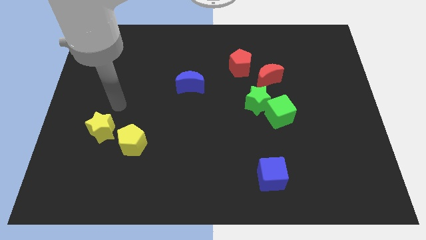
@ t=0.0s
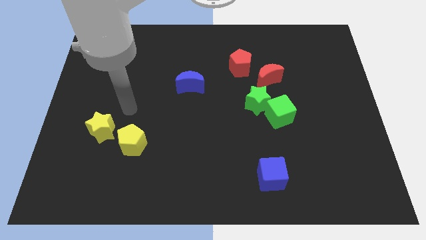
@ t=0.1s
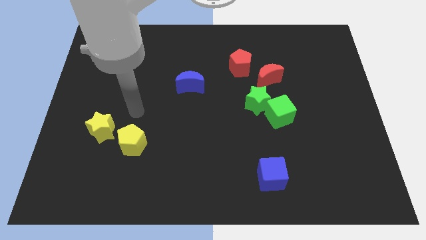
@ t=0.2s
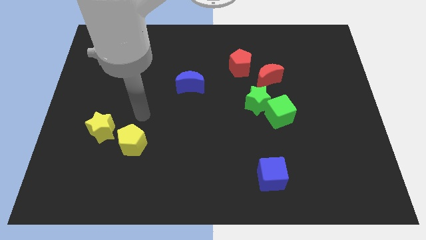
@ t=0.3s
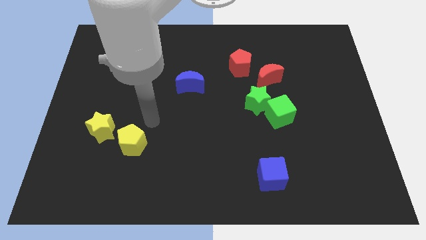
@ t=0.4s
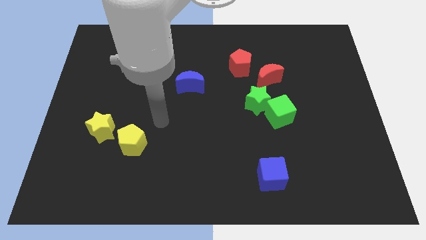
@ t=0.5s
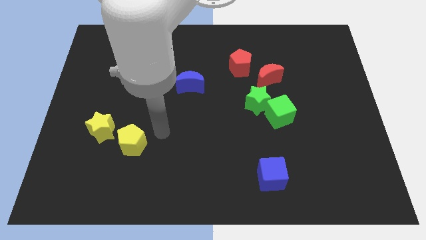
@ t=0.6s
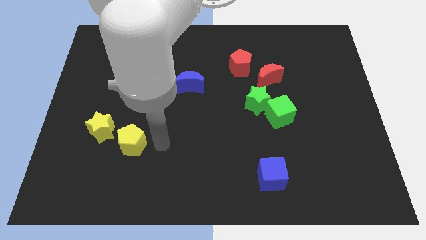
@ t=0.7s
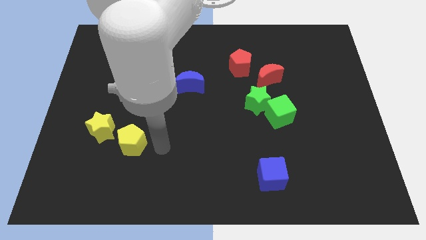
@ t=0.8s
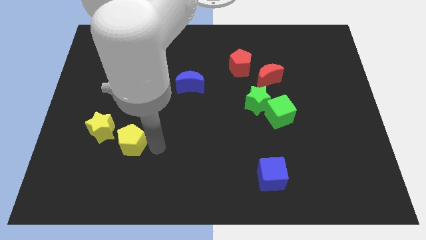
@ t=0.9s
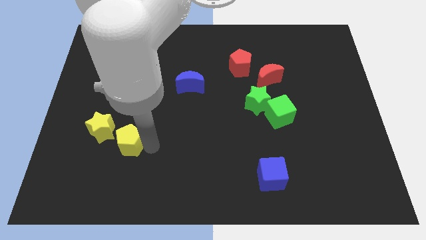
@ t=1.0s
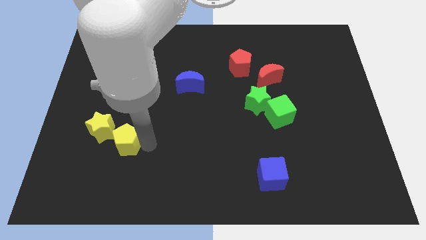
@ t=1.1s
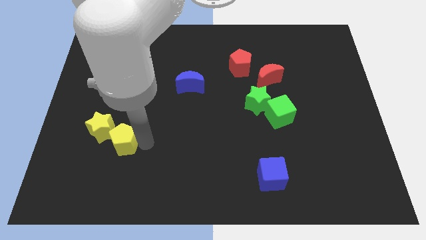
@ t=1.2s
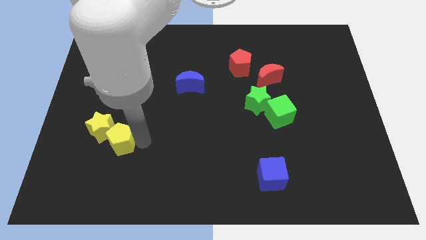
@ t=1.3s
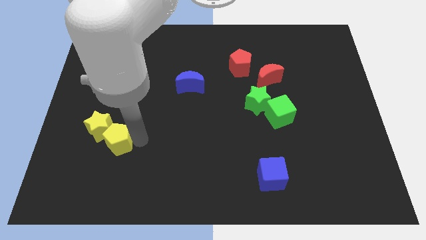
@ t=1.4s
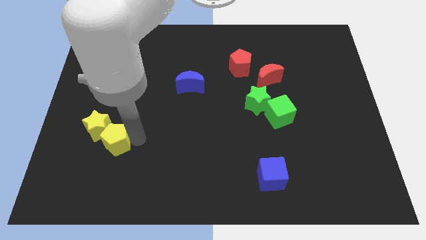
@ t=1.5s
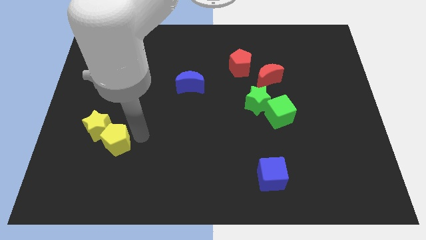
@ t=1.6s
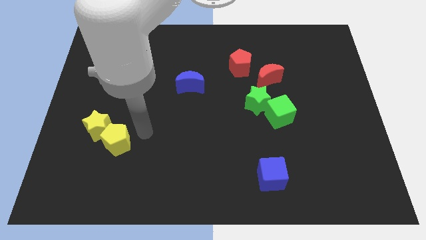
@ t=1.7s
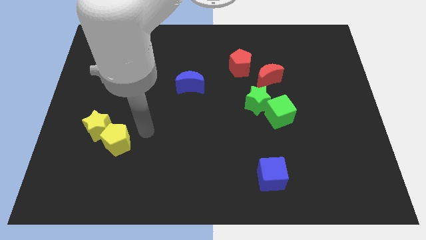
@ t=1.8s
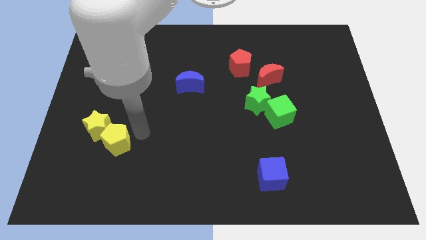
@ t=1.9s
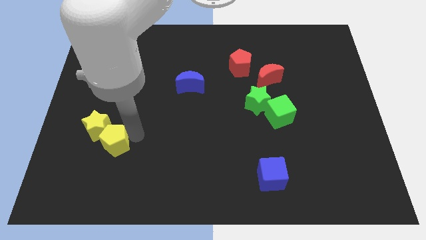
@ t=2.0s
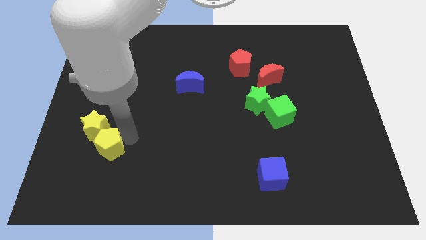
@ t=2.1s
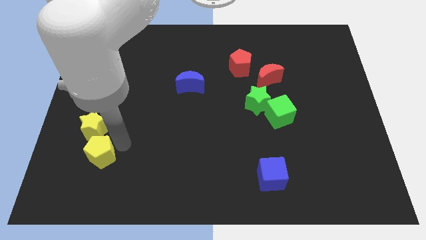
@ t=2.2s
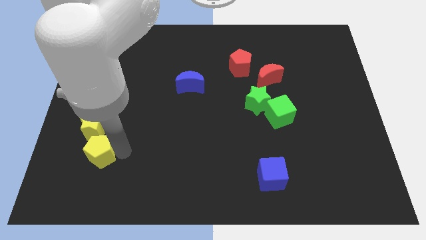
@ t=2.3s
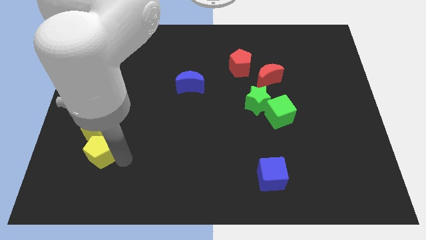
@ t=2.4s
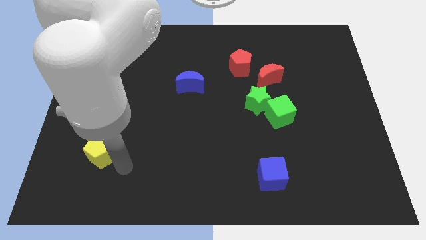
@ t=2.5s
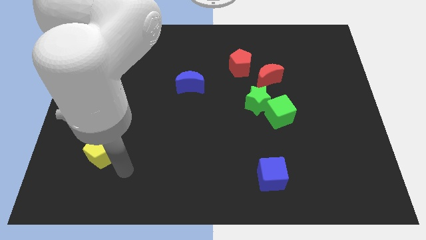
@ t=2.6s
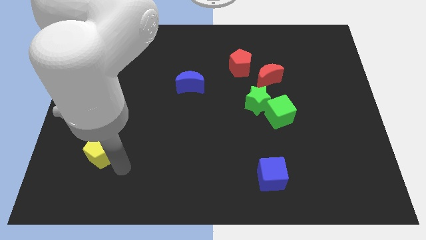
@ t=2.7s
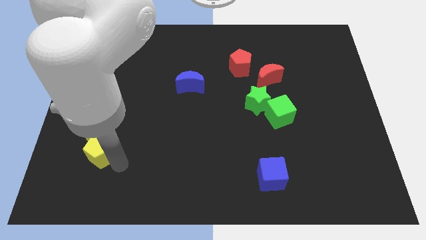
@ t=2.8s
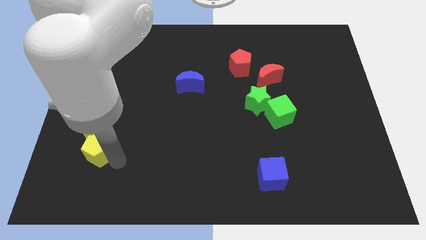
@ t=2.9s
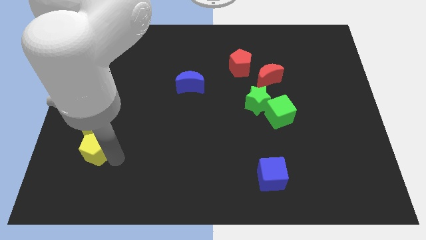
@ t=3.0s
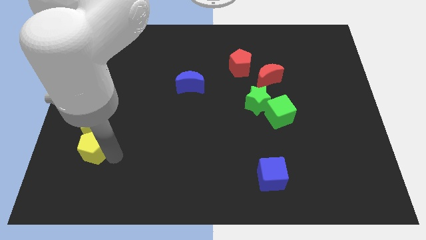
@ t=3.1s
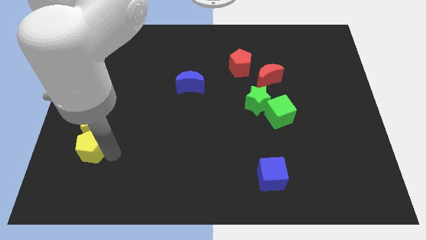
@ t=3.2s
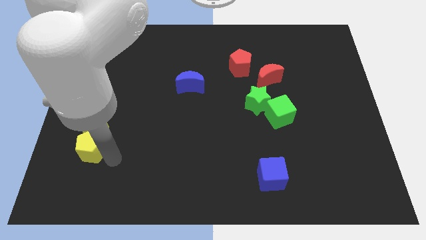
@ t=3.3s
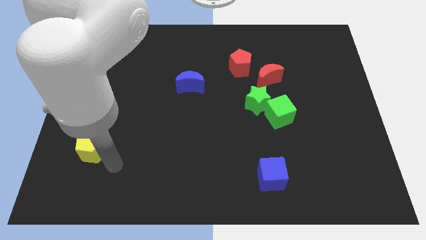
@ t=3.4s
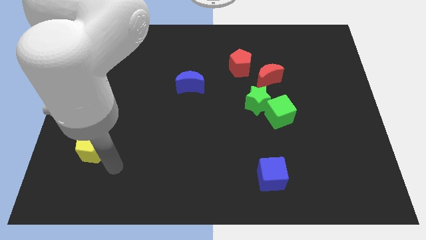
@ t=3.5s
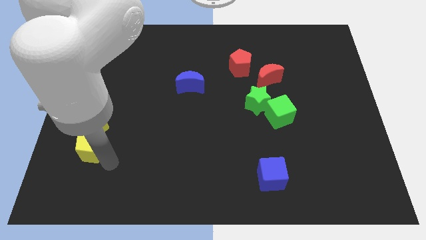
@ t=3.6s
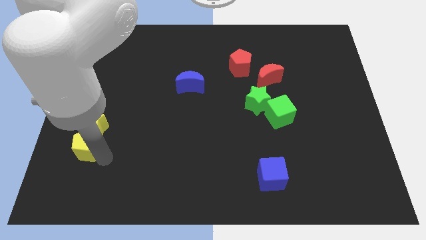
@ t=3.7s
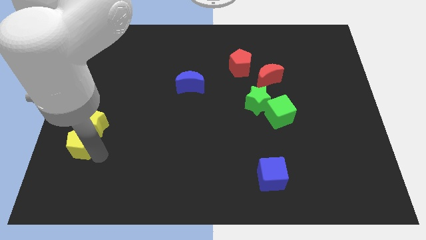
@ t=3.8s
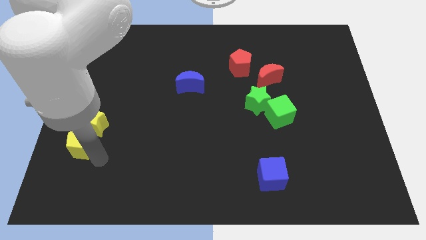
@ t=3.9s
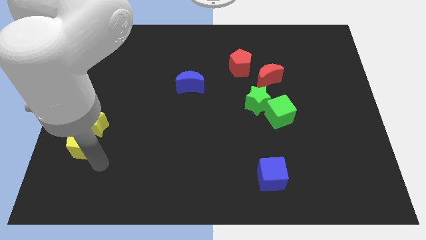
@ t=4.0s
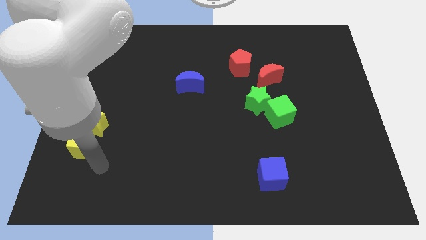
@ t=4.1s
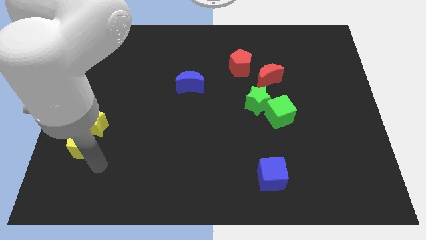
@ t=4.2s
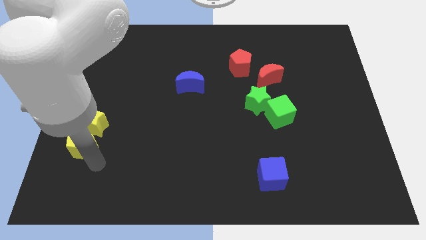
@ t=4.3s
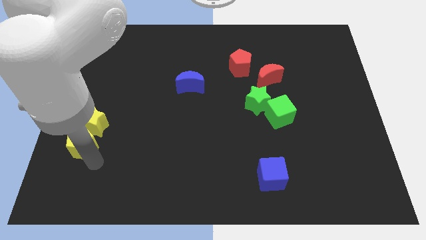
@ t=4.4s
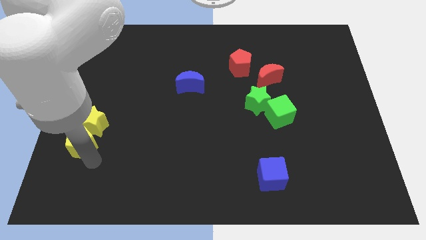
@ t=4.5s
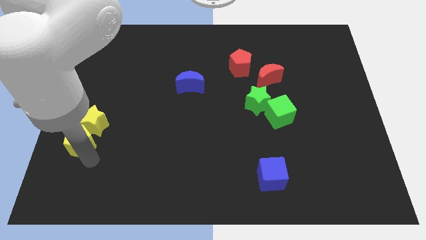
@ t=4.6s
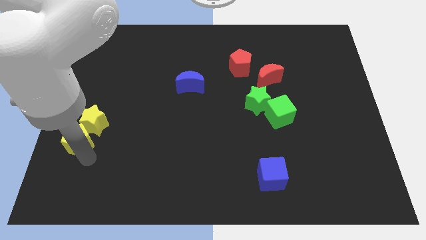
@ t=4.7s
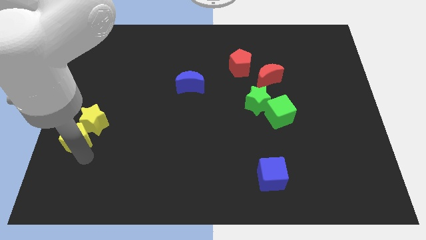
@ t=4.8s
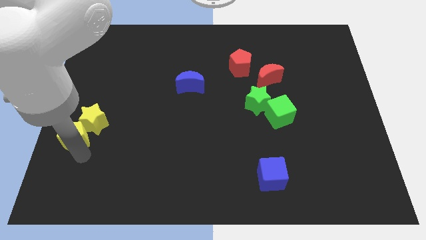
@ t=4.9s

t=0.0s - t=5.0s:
move the yellow pentagon to the center left
